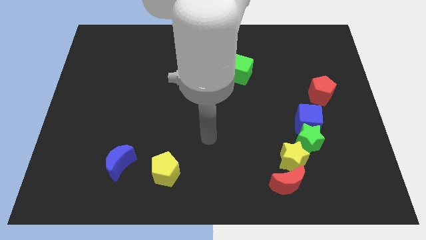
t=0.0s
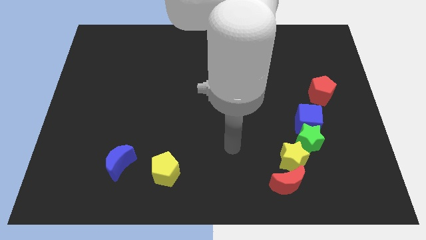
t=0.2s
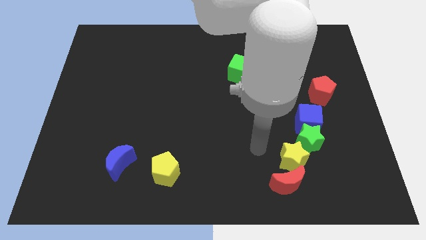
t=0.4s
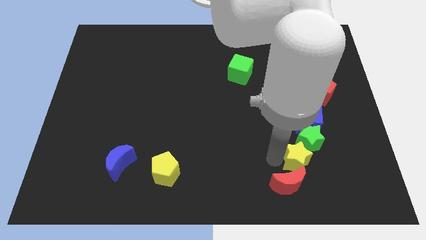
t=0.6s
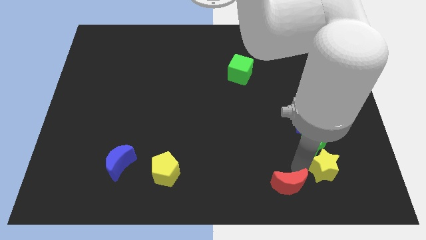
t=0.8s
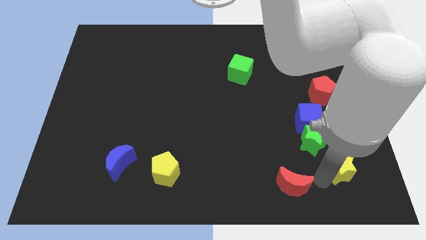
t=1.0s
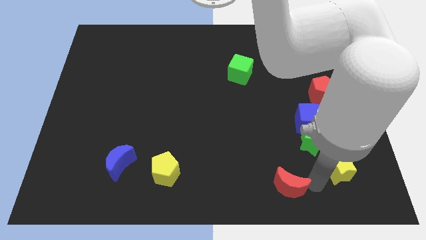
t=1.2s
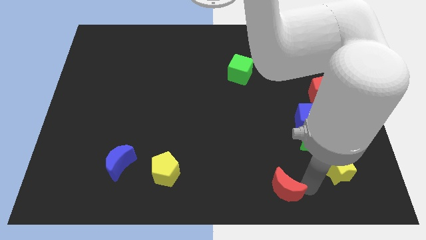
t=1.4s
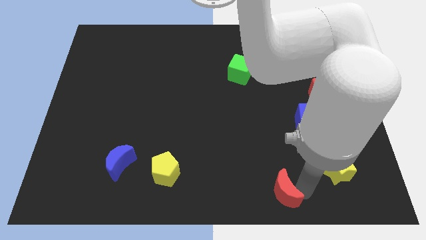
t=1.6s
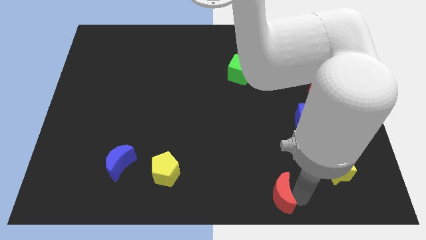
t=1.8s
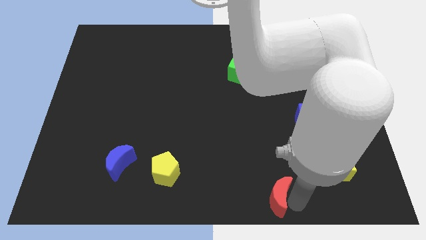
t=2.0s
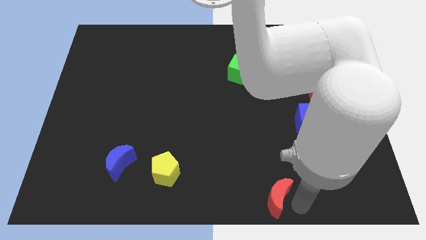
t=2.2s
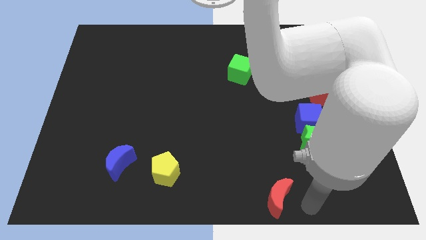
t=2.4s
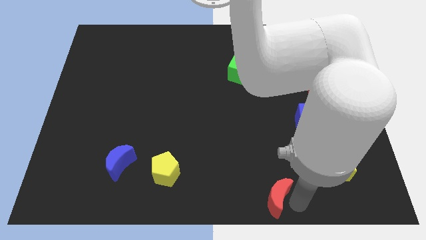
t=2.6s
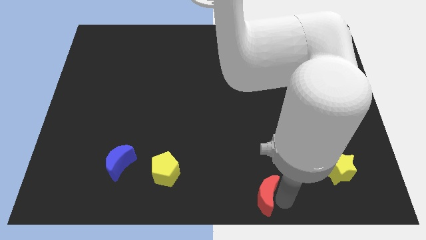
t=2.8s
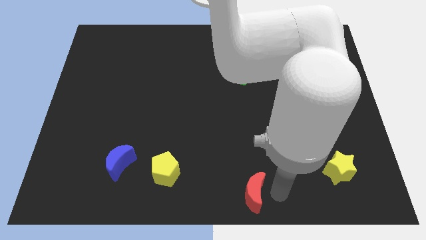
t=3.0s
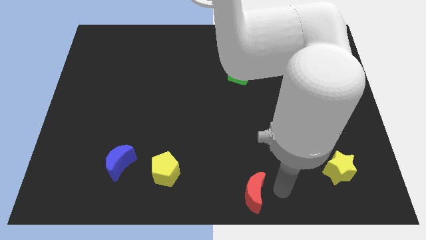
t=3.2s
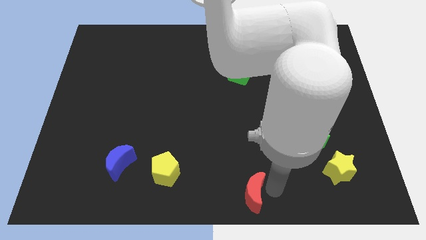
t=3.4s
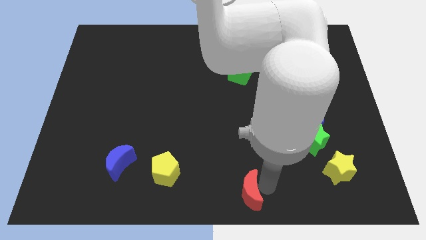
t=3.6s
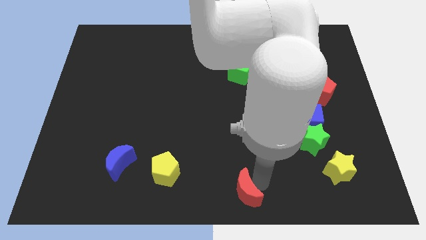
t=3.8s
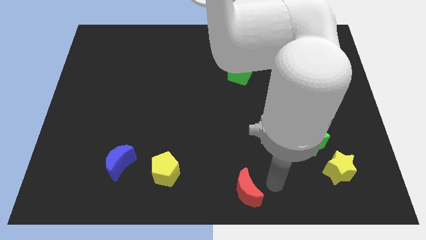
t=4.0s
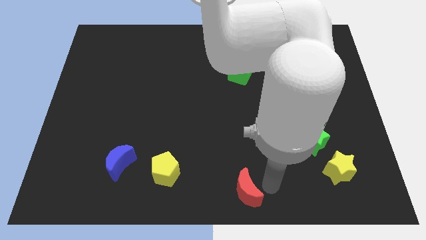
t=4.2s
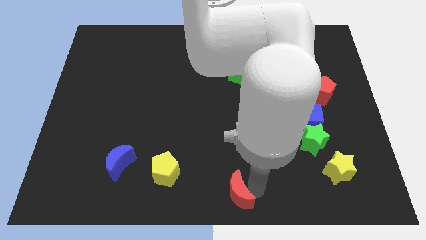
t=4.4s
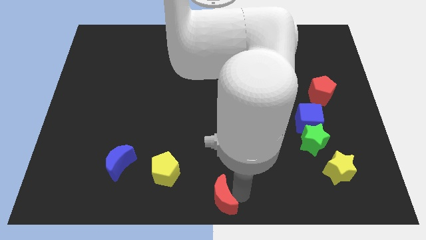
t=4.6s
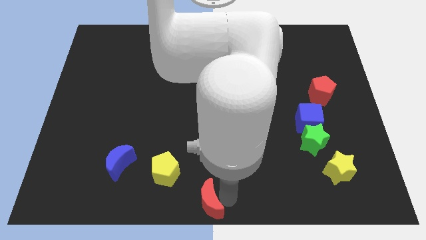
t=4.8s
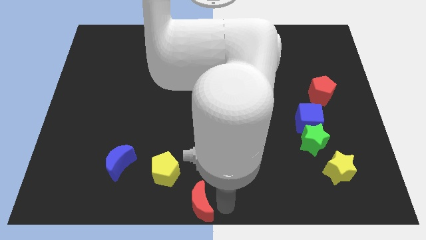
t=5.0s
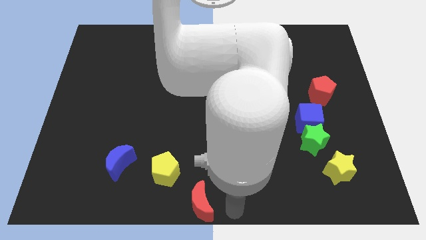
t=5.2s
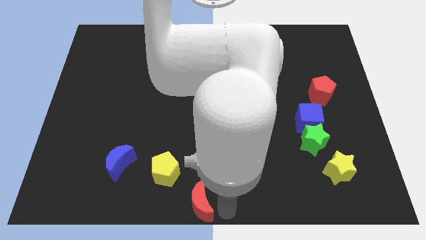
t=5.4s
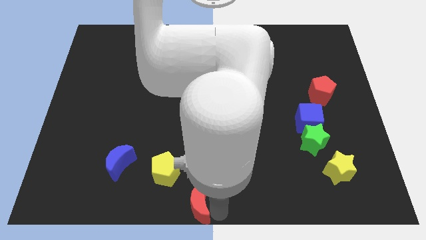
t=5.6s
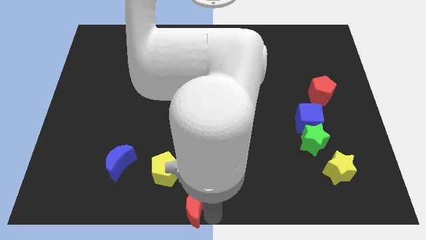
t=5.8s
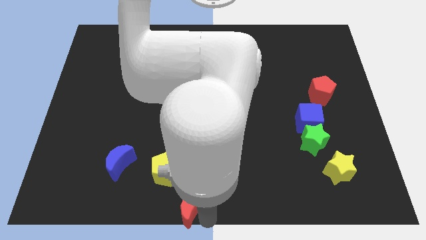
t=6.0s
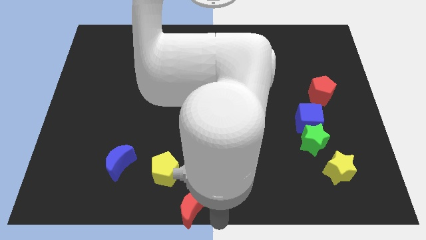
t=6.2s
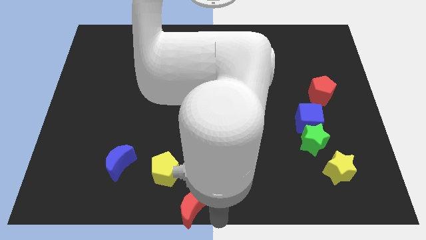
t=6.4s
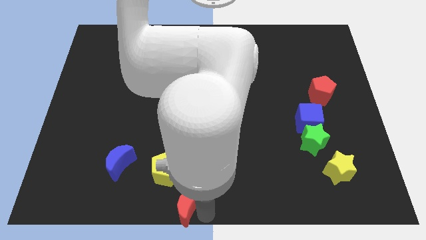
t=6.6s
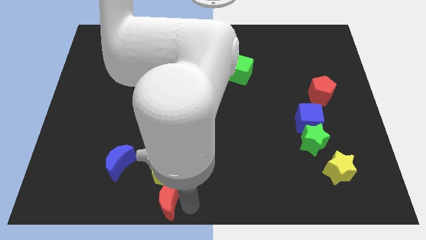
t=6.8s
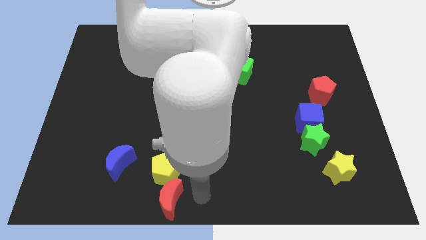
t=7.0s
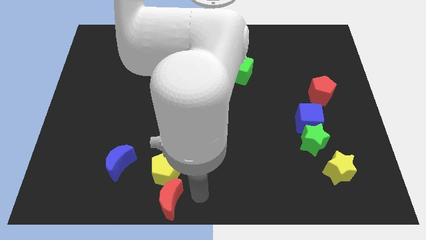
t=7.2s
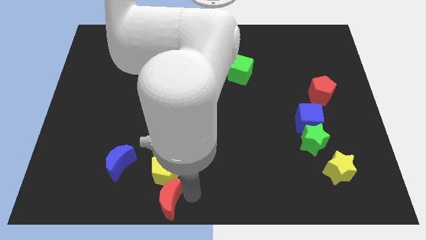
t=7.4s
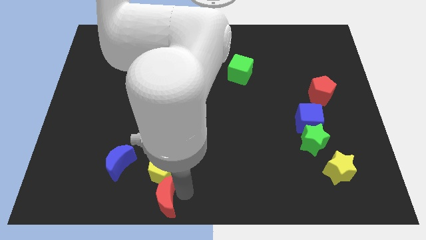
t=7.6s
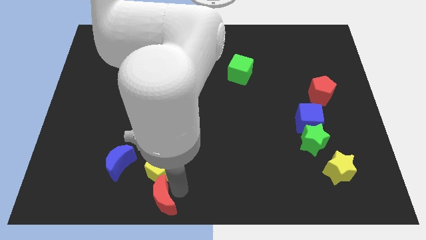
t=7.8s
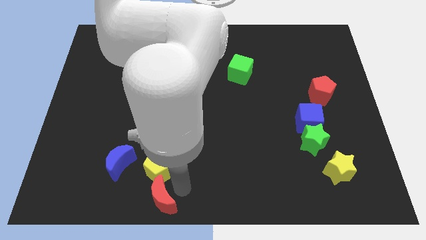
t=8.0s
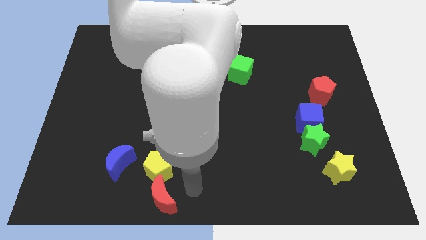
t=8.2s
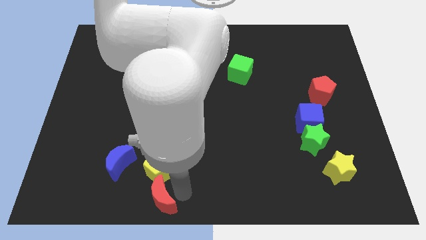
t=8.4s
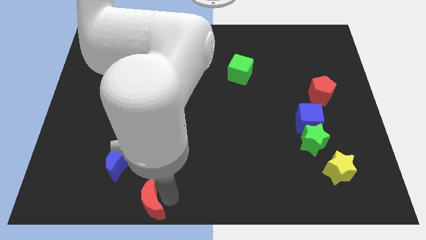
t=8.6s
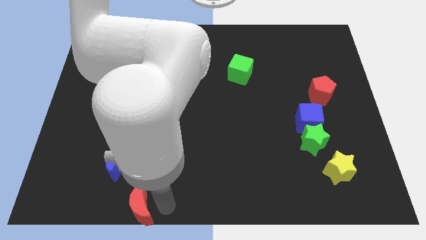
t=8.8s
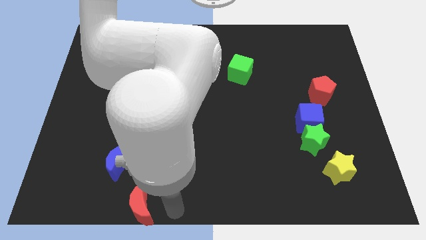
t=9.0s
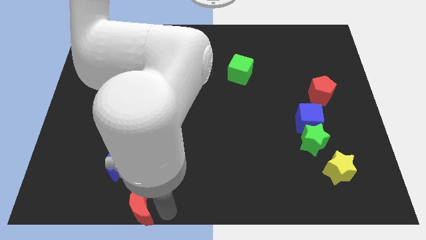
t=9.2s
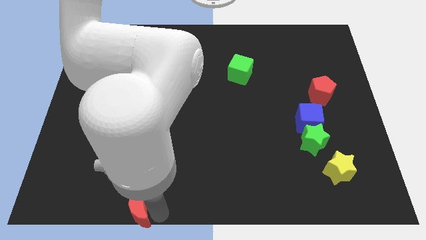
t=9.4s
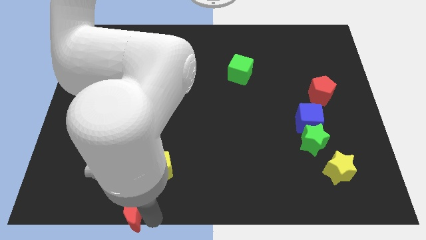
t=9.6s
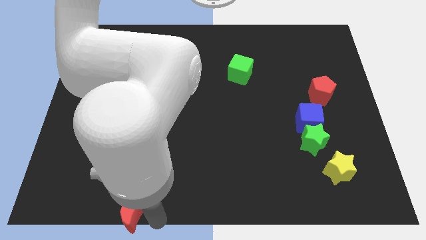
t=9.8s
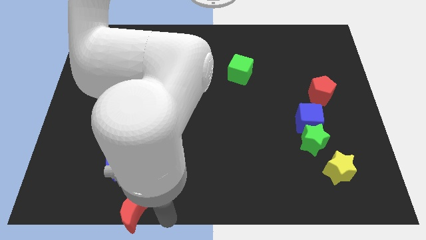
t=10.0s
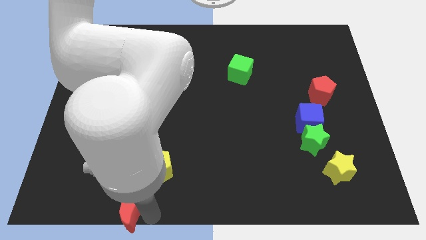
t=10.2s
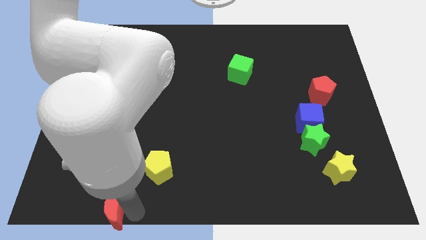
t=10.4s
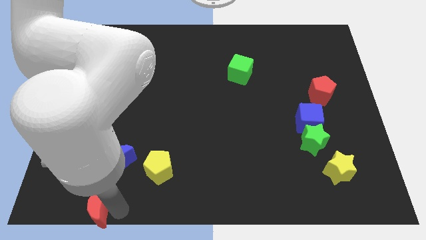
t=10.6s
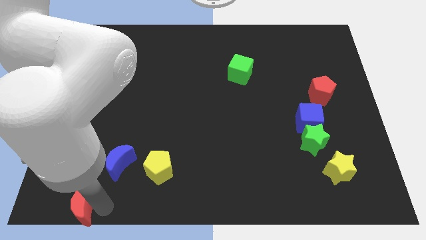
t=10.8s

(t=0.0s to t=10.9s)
put the red moon to the lower left corner
